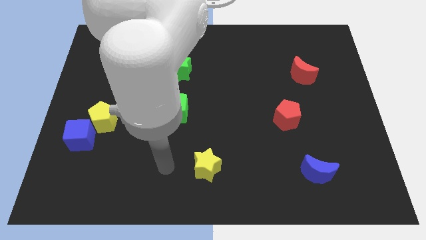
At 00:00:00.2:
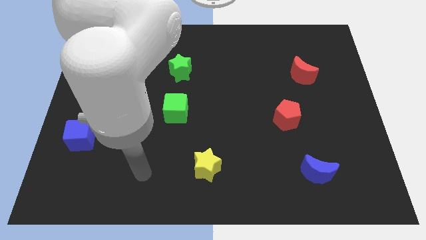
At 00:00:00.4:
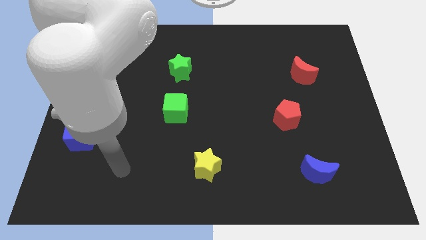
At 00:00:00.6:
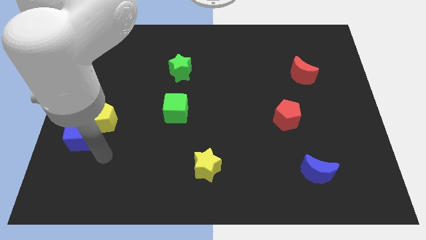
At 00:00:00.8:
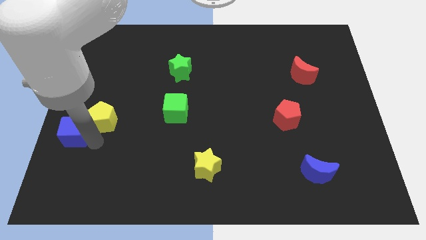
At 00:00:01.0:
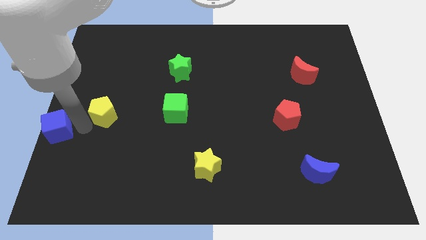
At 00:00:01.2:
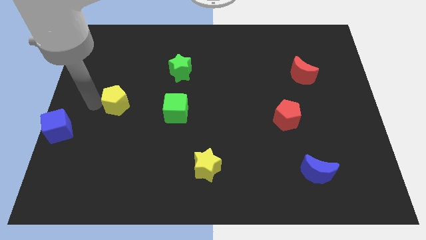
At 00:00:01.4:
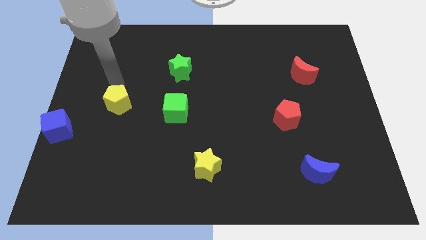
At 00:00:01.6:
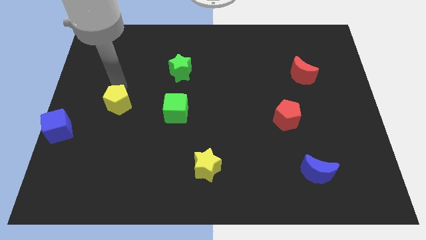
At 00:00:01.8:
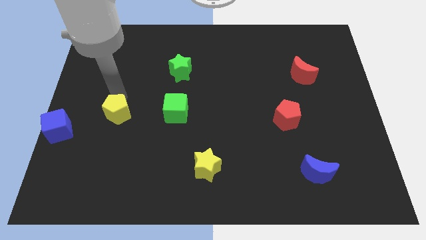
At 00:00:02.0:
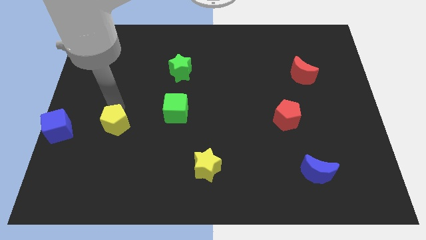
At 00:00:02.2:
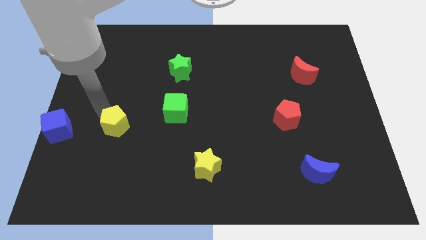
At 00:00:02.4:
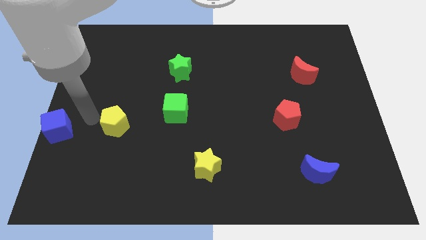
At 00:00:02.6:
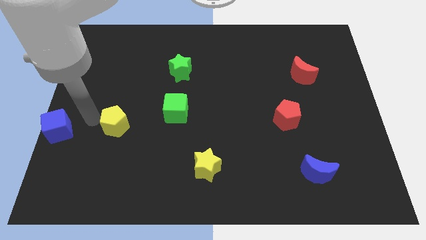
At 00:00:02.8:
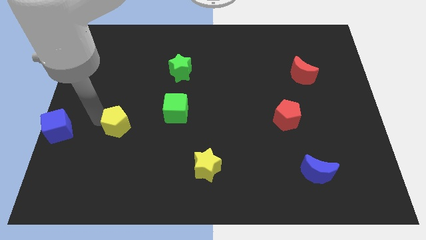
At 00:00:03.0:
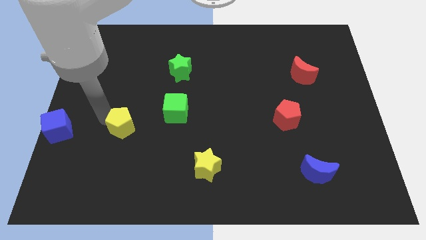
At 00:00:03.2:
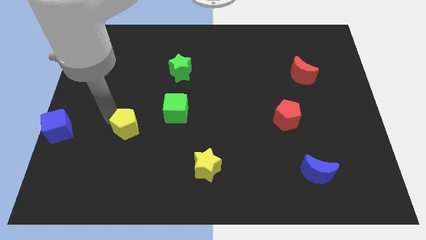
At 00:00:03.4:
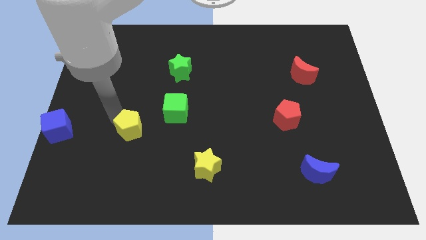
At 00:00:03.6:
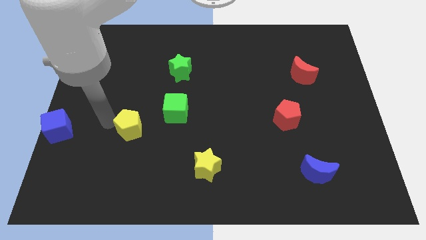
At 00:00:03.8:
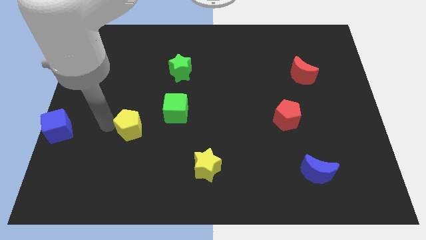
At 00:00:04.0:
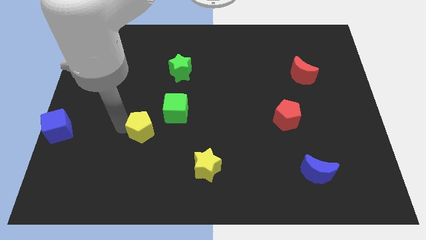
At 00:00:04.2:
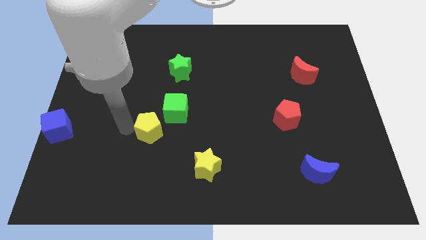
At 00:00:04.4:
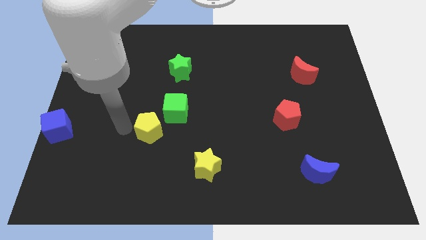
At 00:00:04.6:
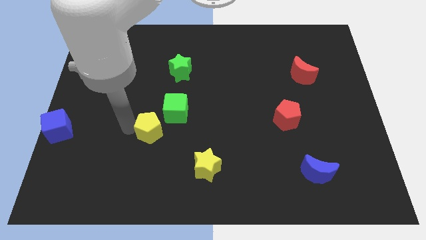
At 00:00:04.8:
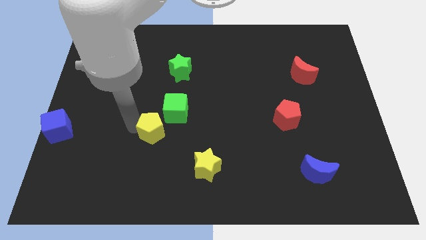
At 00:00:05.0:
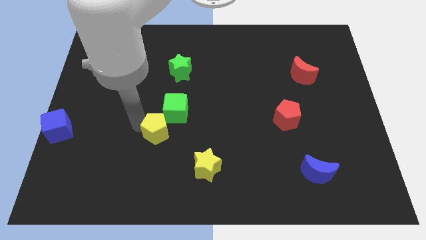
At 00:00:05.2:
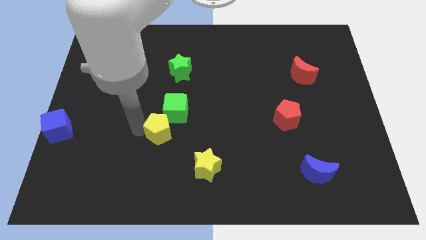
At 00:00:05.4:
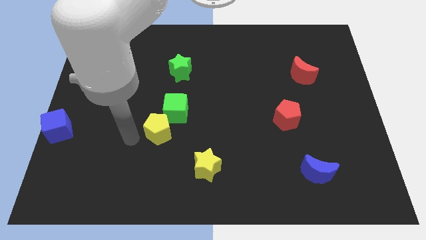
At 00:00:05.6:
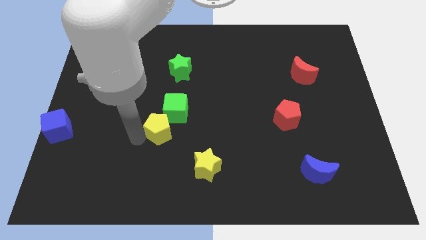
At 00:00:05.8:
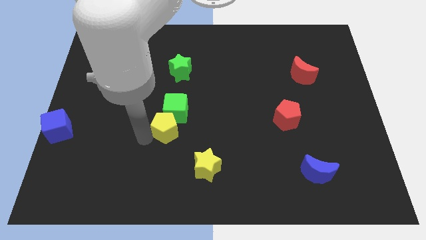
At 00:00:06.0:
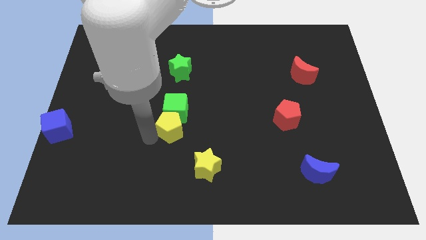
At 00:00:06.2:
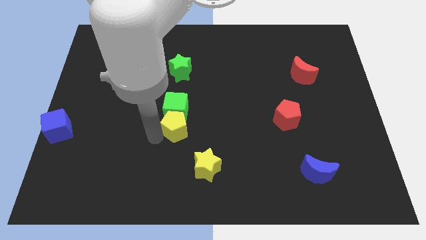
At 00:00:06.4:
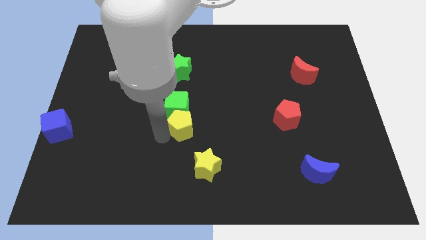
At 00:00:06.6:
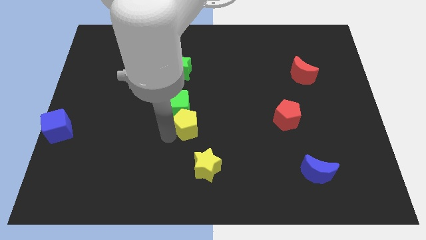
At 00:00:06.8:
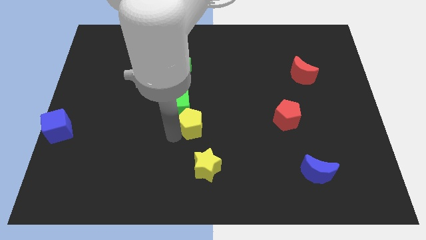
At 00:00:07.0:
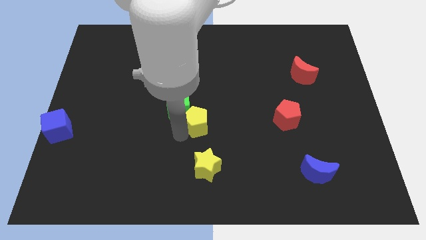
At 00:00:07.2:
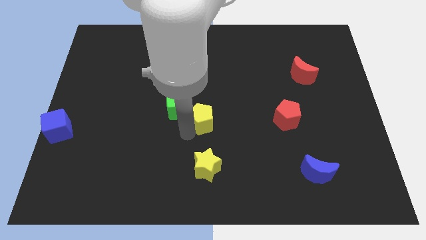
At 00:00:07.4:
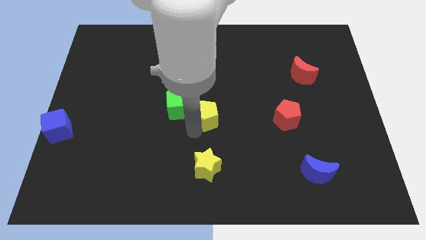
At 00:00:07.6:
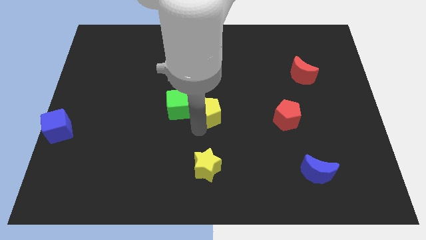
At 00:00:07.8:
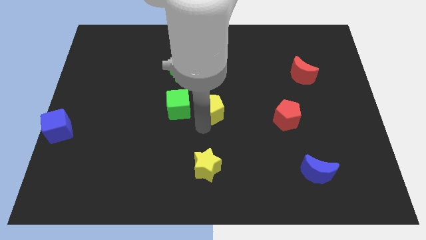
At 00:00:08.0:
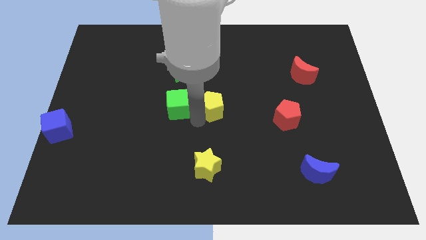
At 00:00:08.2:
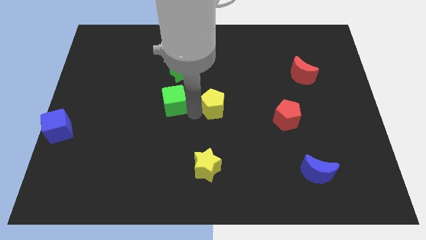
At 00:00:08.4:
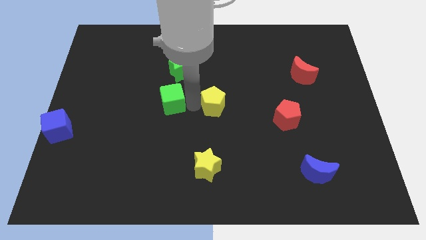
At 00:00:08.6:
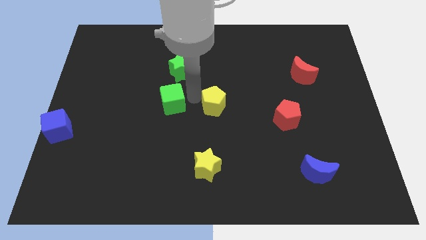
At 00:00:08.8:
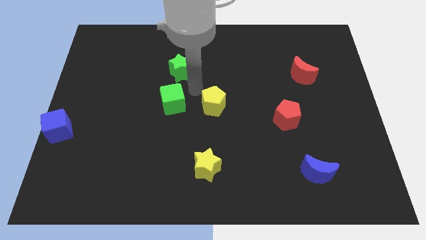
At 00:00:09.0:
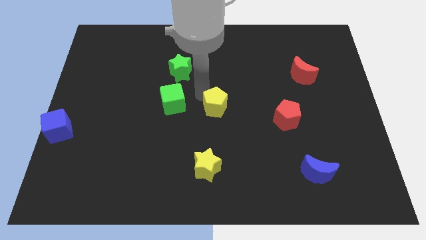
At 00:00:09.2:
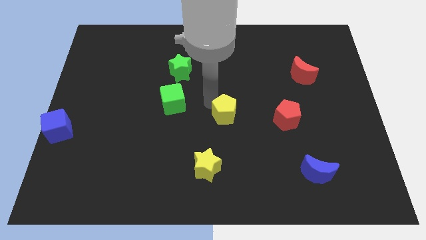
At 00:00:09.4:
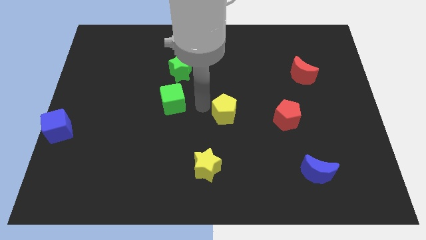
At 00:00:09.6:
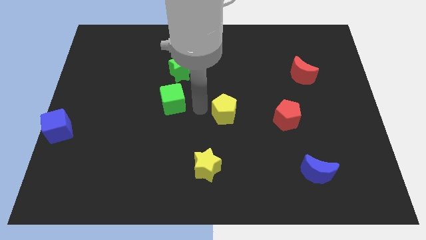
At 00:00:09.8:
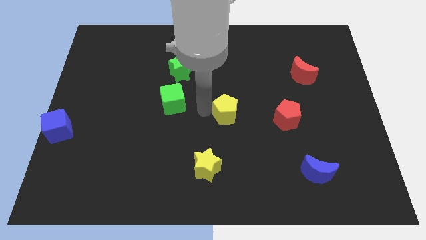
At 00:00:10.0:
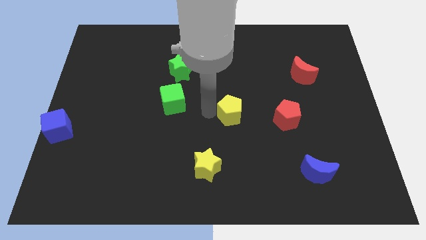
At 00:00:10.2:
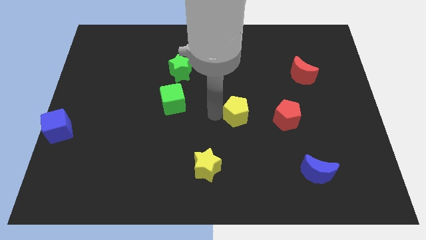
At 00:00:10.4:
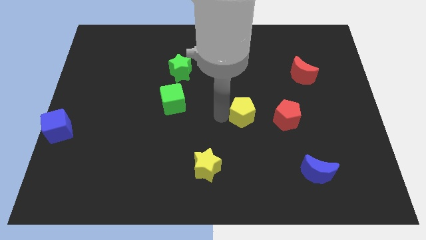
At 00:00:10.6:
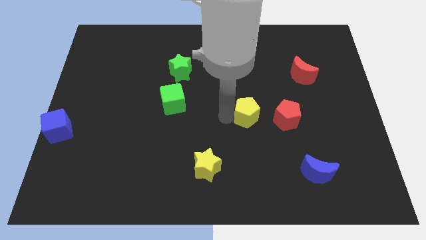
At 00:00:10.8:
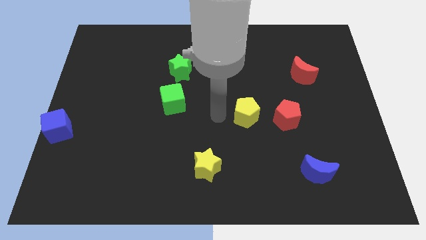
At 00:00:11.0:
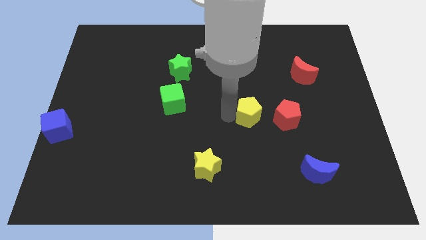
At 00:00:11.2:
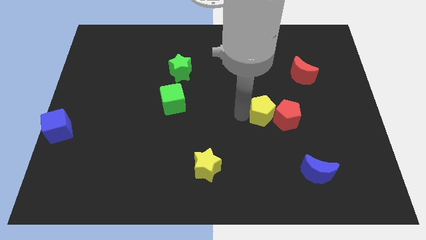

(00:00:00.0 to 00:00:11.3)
push the yellow pentagon to the red pentagon

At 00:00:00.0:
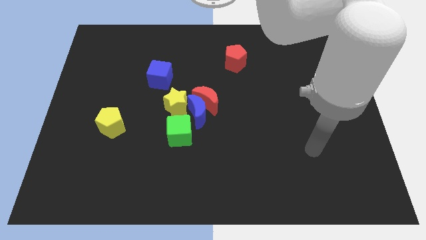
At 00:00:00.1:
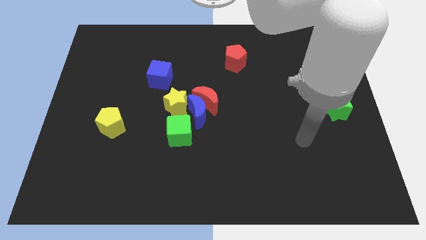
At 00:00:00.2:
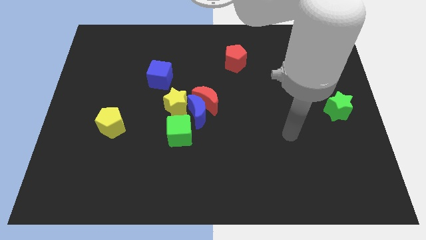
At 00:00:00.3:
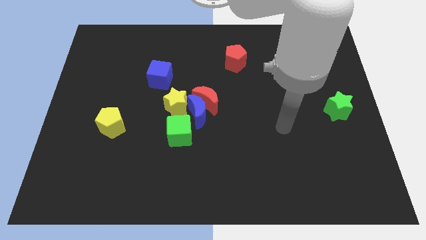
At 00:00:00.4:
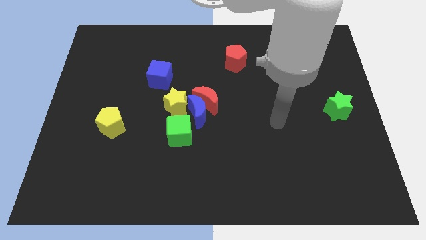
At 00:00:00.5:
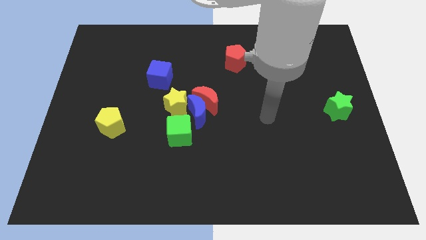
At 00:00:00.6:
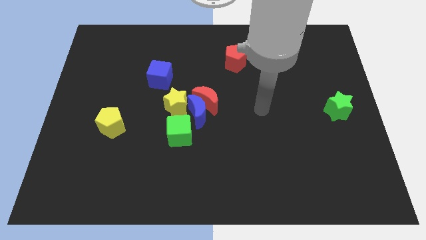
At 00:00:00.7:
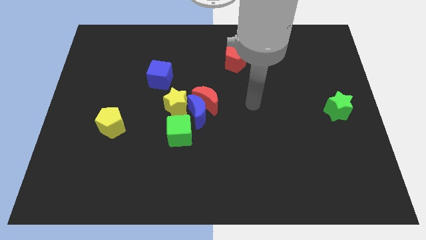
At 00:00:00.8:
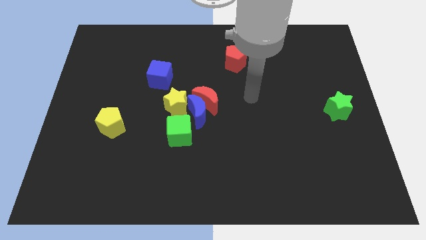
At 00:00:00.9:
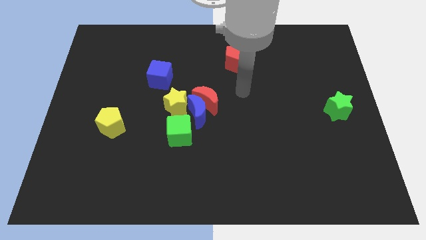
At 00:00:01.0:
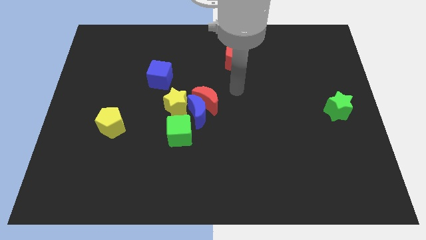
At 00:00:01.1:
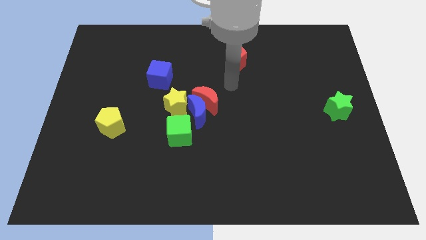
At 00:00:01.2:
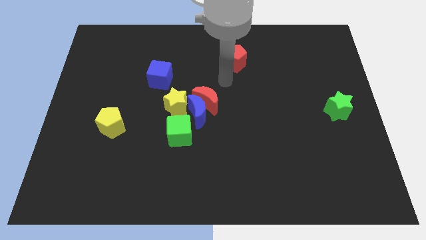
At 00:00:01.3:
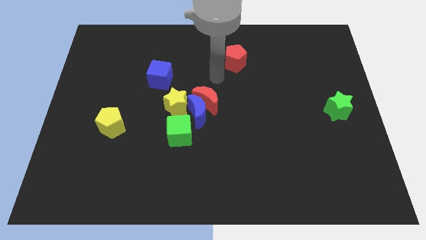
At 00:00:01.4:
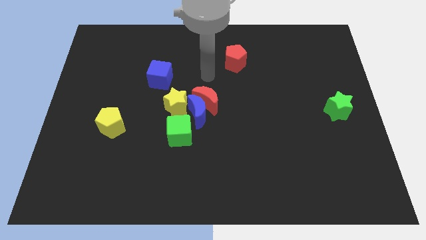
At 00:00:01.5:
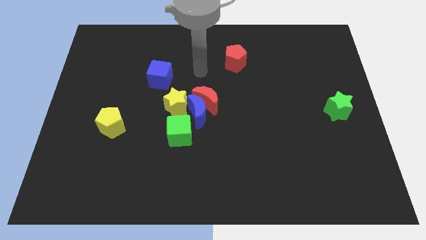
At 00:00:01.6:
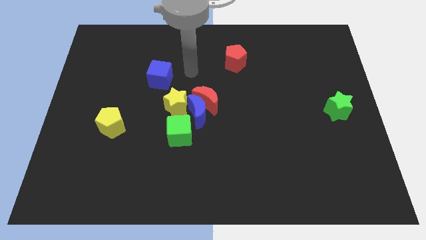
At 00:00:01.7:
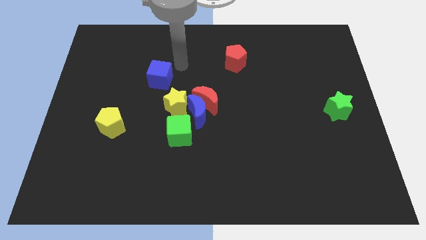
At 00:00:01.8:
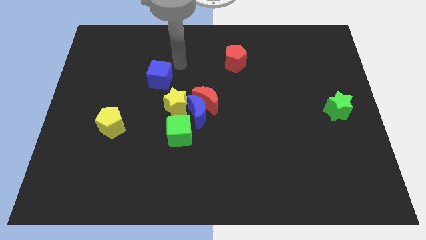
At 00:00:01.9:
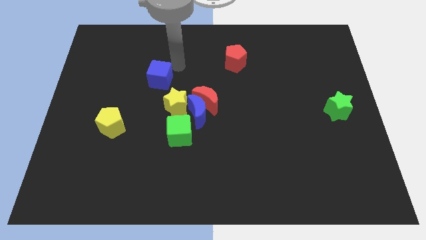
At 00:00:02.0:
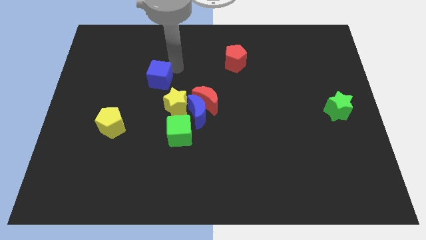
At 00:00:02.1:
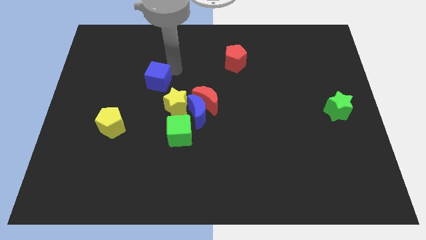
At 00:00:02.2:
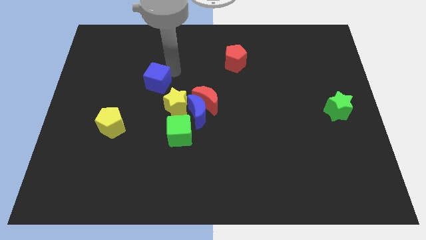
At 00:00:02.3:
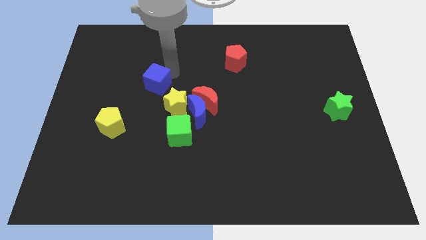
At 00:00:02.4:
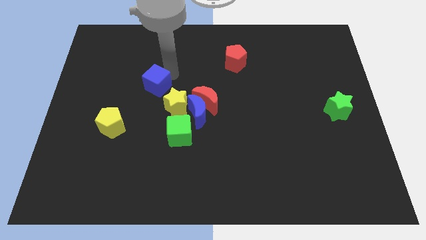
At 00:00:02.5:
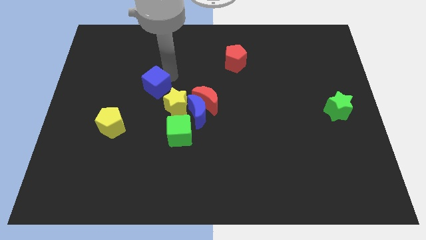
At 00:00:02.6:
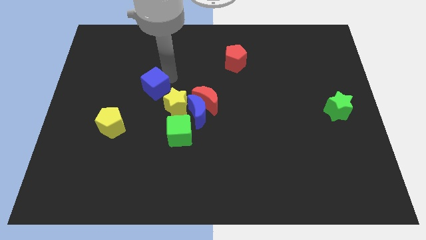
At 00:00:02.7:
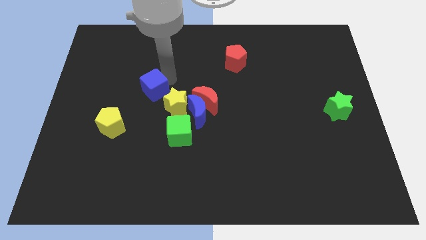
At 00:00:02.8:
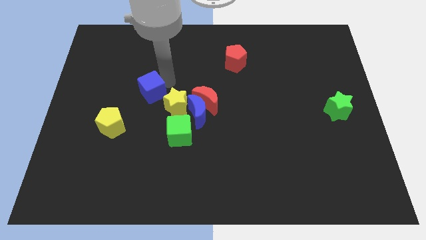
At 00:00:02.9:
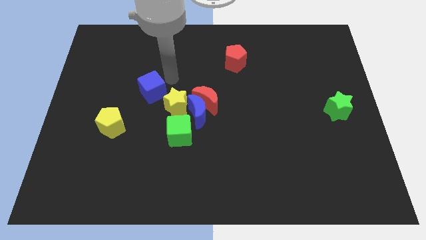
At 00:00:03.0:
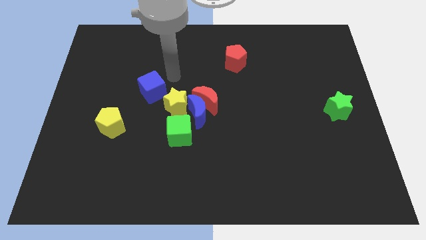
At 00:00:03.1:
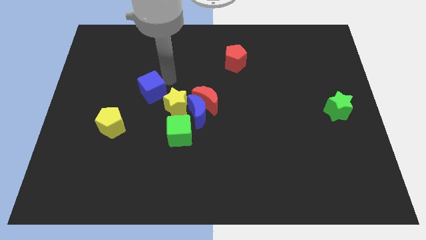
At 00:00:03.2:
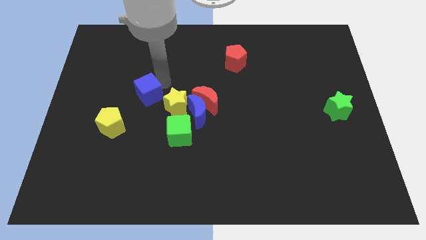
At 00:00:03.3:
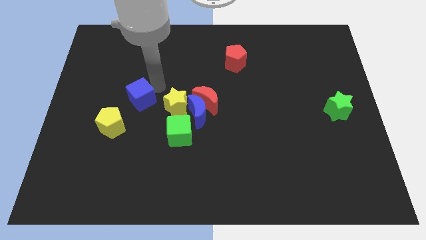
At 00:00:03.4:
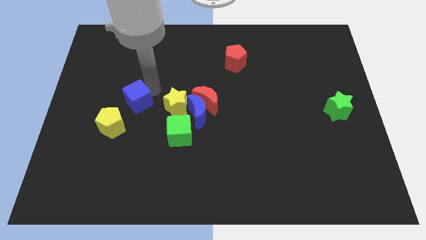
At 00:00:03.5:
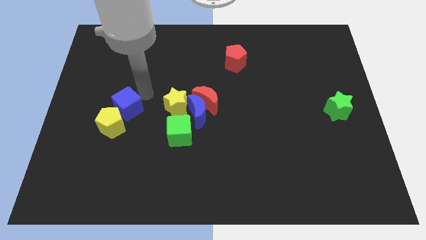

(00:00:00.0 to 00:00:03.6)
move the blue cube next to the yellow pentagon
